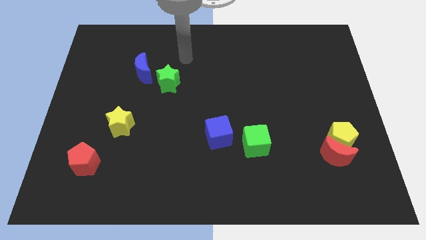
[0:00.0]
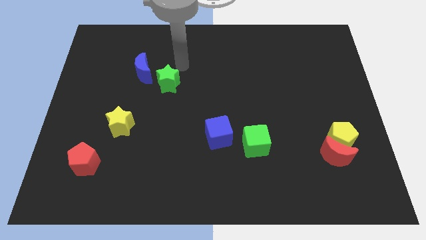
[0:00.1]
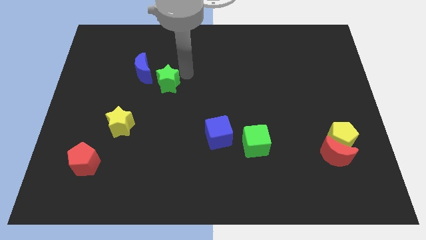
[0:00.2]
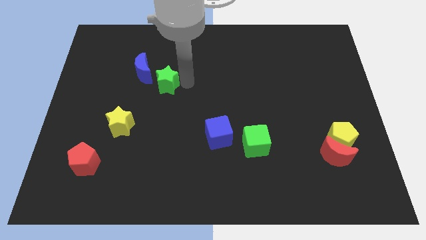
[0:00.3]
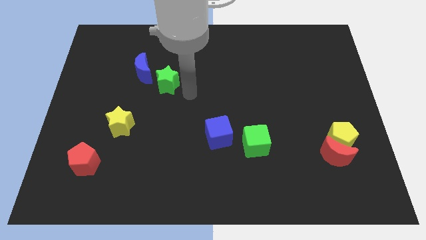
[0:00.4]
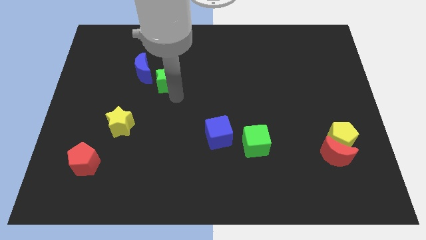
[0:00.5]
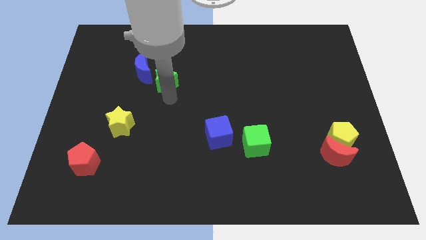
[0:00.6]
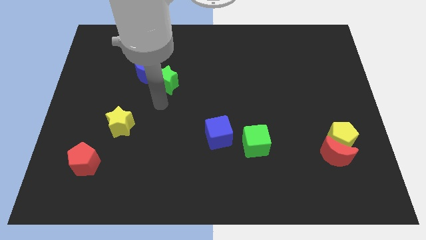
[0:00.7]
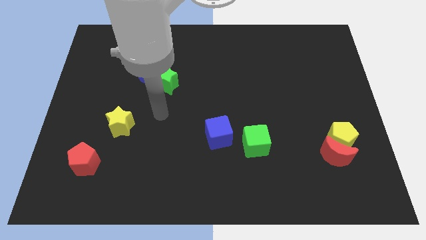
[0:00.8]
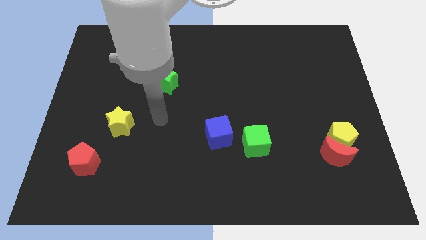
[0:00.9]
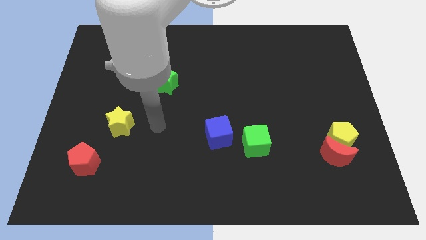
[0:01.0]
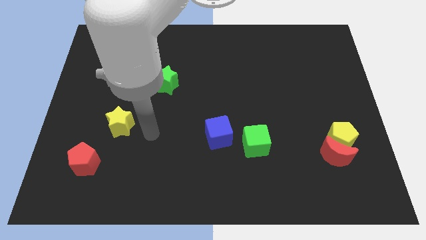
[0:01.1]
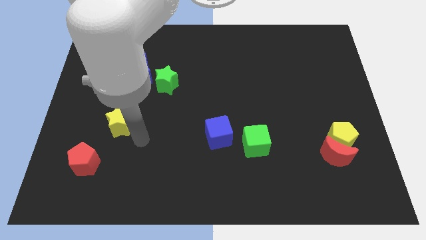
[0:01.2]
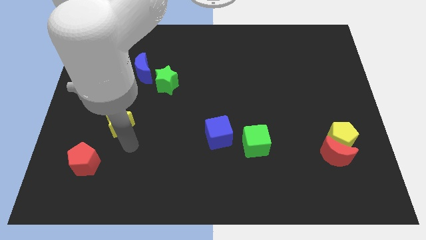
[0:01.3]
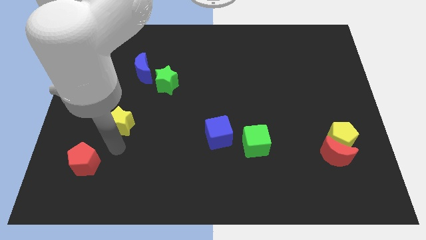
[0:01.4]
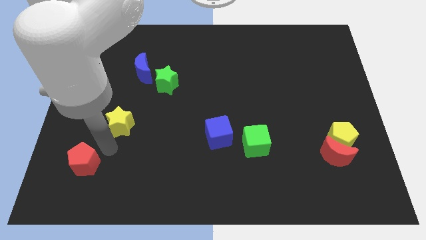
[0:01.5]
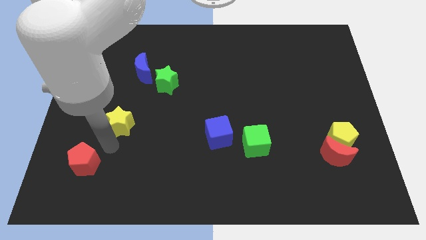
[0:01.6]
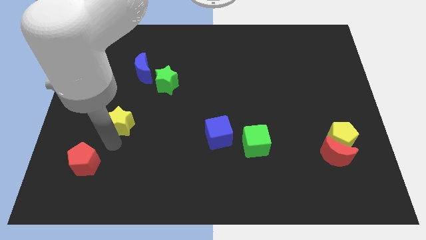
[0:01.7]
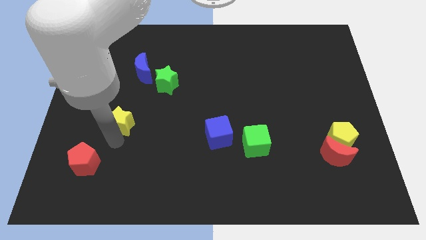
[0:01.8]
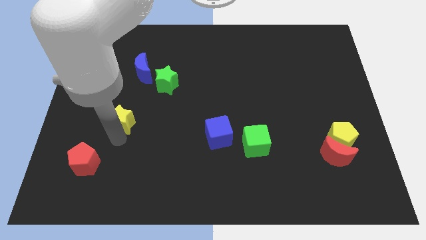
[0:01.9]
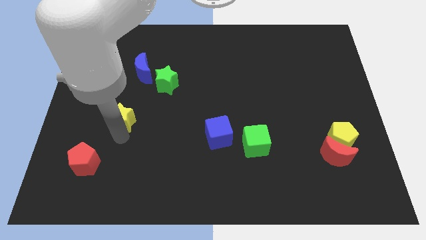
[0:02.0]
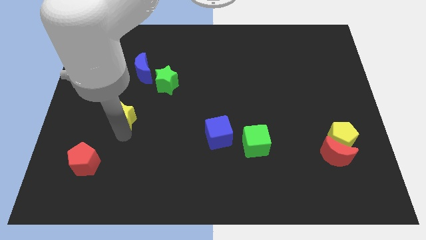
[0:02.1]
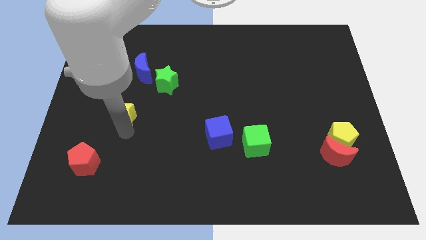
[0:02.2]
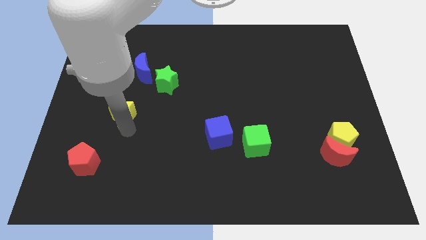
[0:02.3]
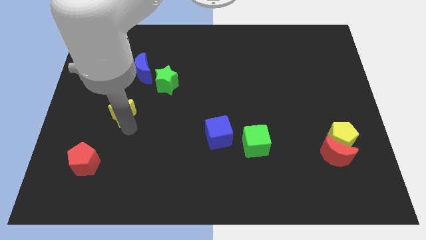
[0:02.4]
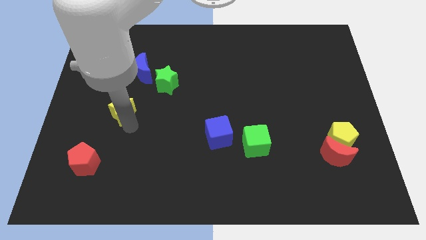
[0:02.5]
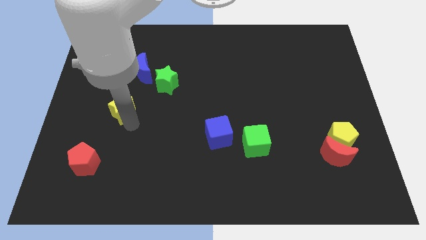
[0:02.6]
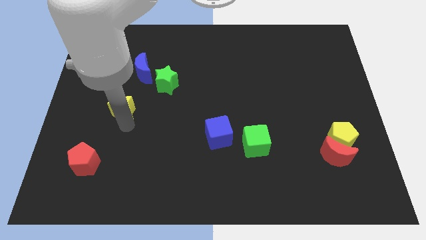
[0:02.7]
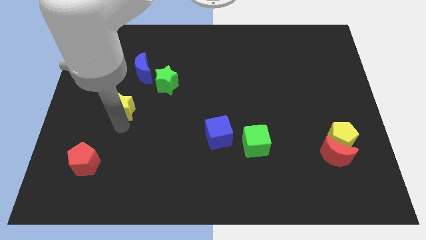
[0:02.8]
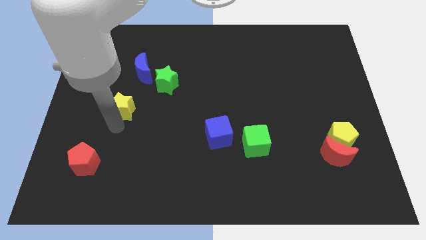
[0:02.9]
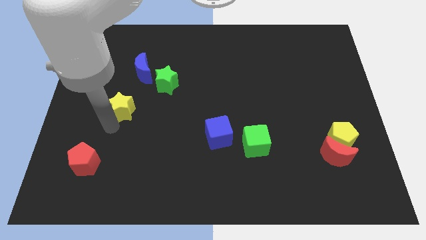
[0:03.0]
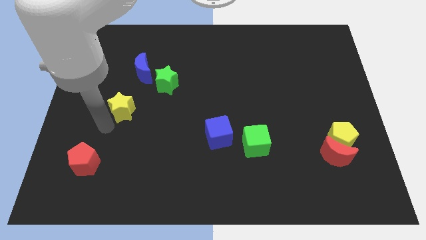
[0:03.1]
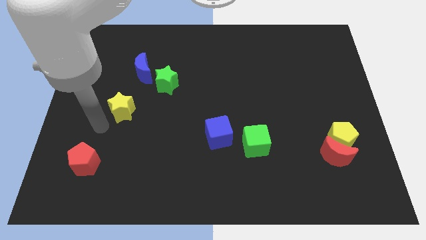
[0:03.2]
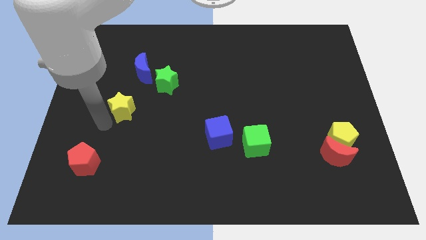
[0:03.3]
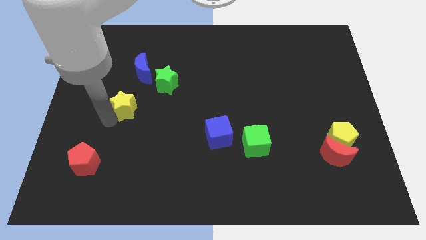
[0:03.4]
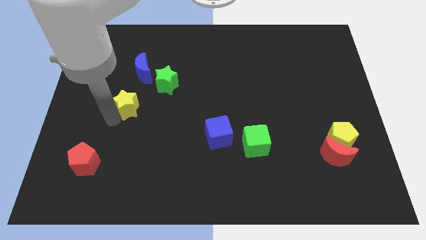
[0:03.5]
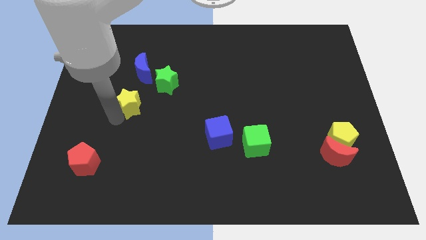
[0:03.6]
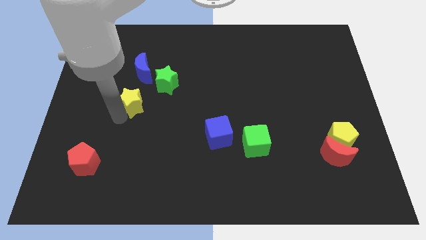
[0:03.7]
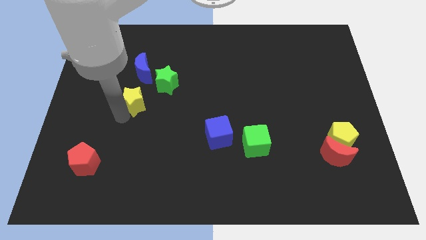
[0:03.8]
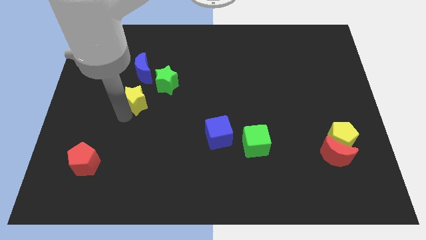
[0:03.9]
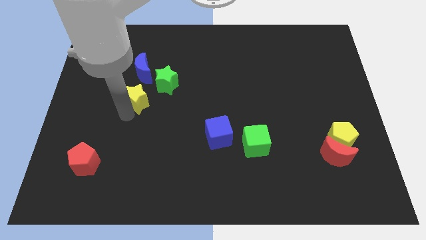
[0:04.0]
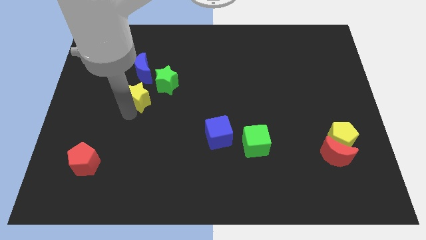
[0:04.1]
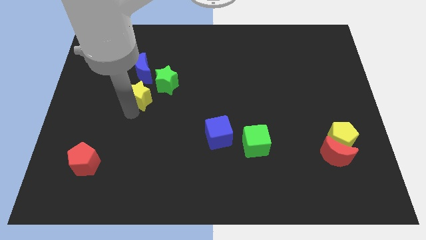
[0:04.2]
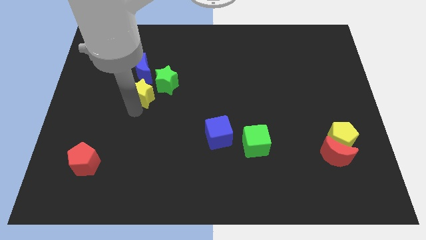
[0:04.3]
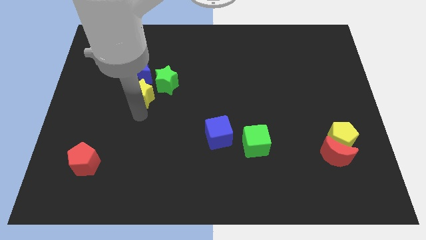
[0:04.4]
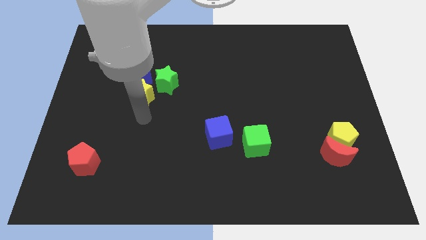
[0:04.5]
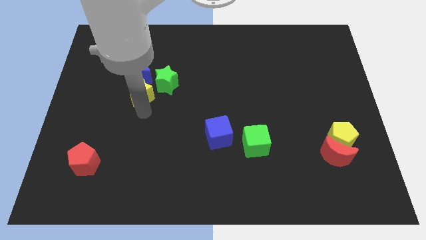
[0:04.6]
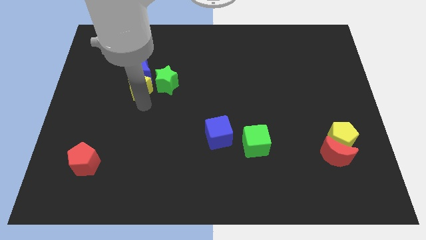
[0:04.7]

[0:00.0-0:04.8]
slide the yellow star next to the blue moon

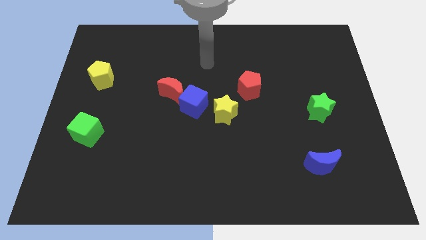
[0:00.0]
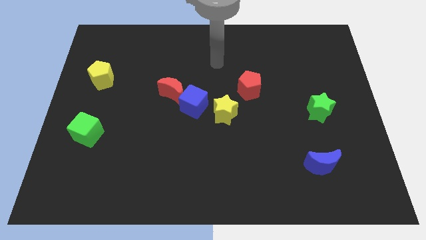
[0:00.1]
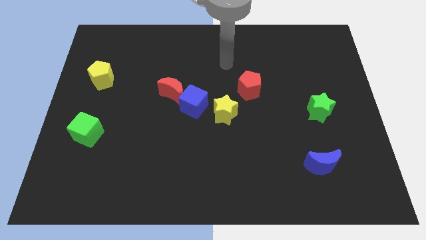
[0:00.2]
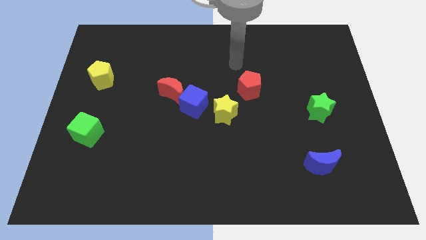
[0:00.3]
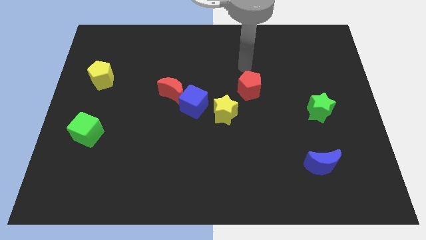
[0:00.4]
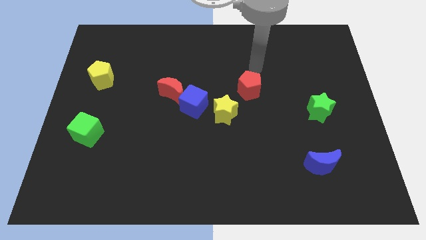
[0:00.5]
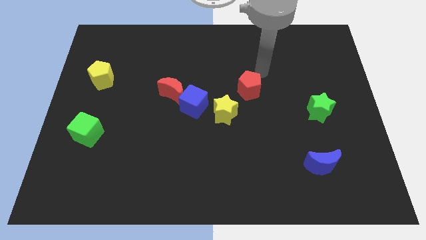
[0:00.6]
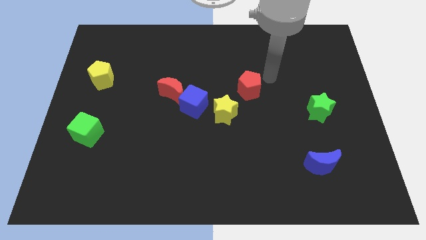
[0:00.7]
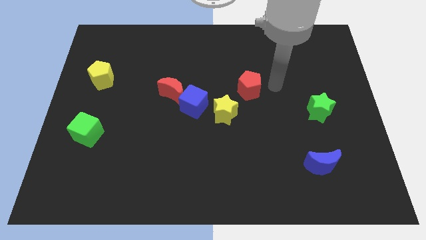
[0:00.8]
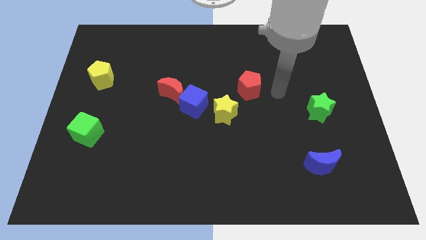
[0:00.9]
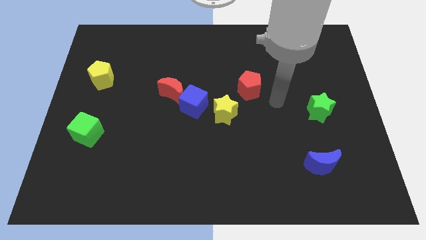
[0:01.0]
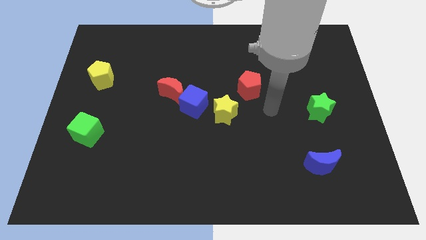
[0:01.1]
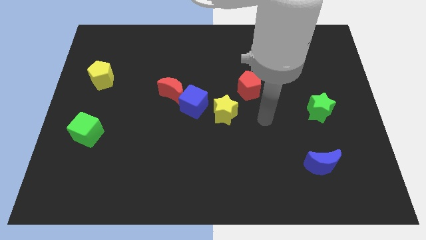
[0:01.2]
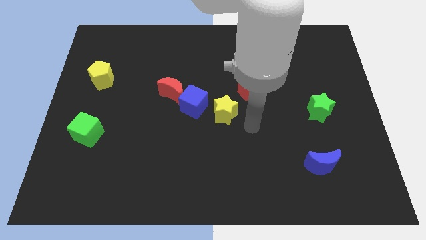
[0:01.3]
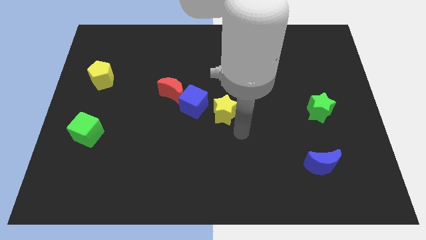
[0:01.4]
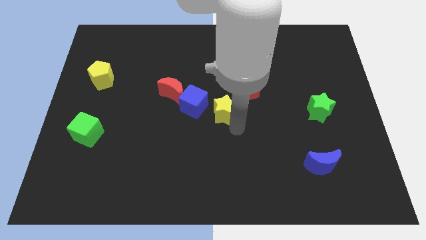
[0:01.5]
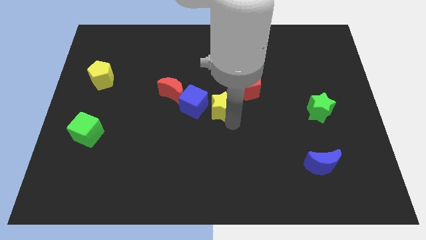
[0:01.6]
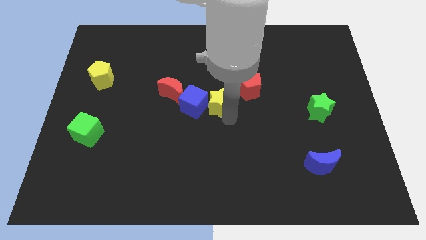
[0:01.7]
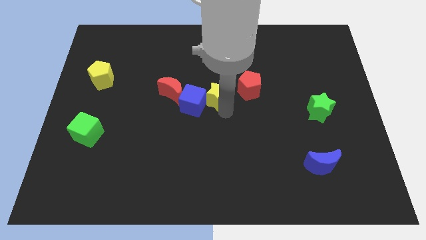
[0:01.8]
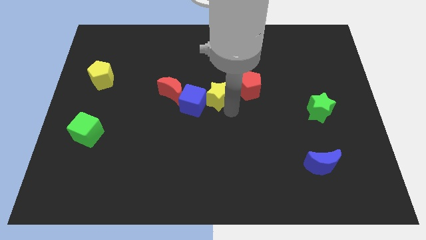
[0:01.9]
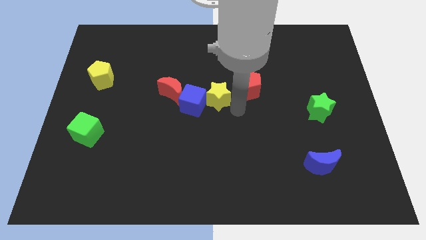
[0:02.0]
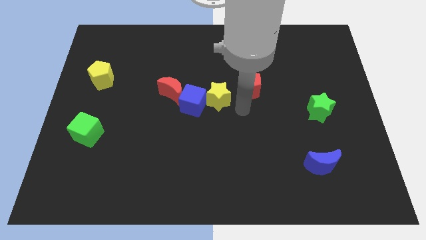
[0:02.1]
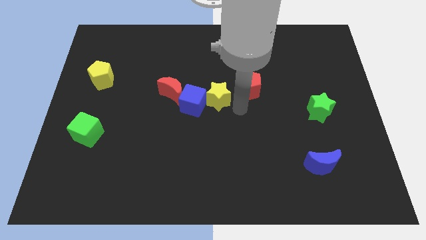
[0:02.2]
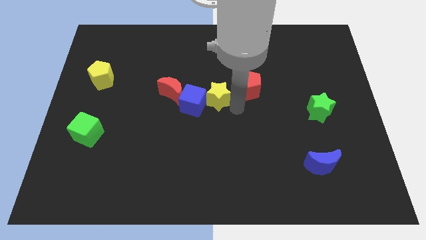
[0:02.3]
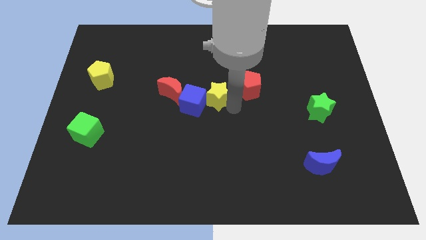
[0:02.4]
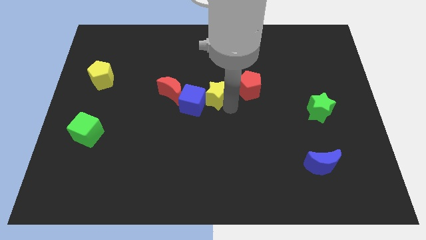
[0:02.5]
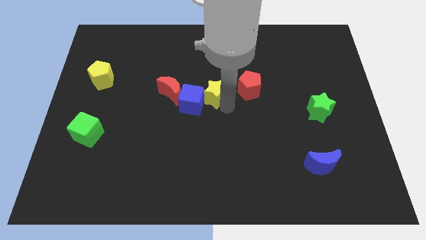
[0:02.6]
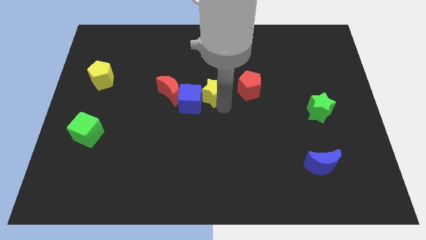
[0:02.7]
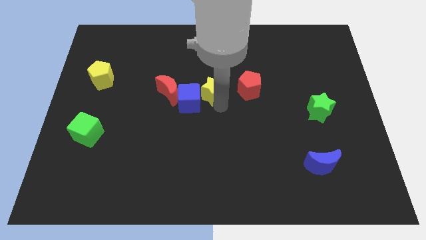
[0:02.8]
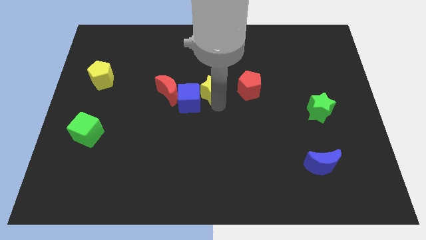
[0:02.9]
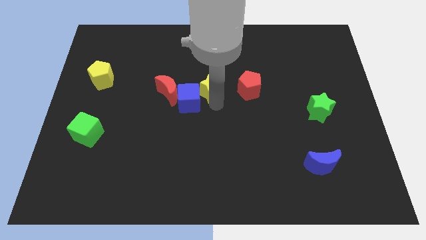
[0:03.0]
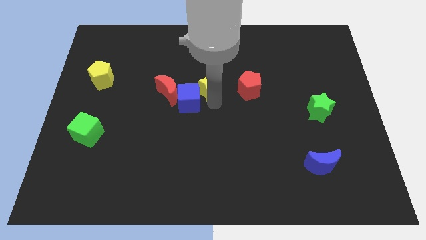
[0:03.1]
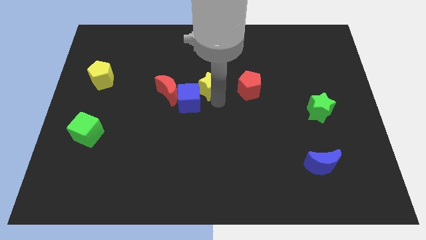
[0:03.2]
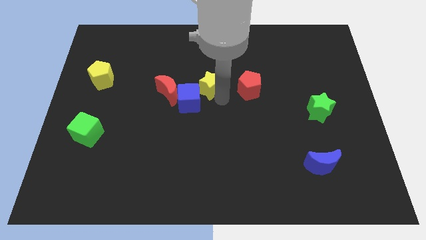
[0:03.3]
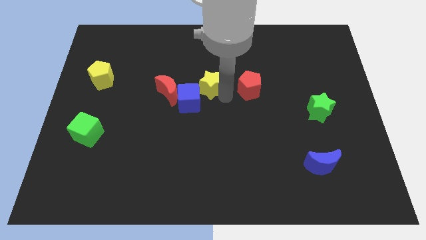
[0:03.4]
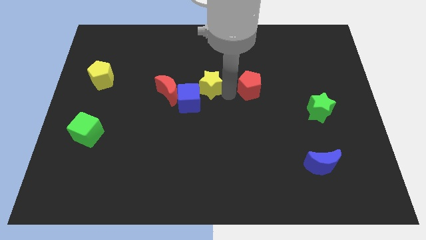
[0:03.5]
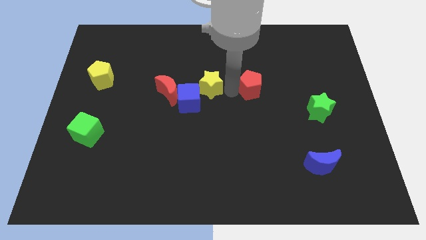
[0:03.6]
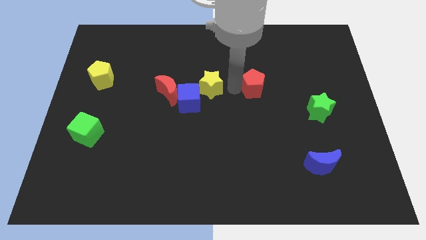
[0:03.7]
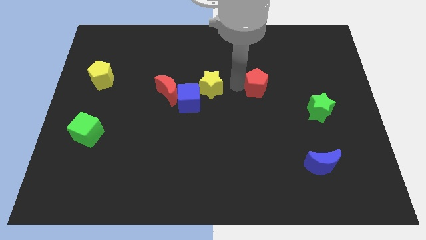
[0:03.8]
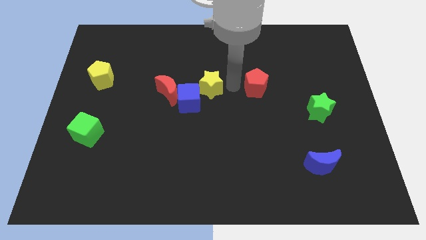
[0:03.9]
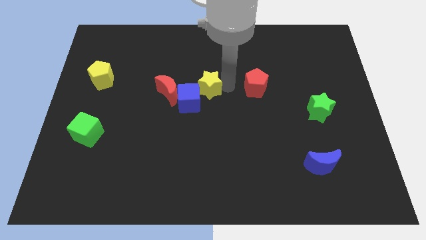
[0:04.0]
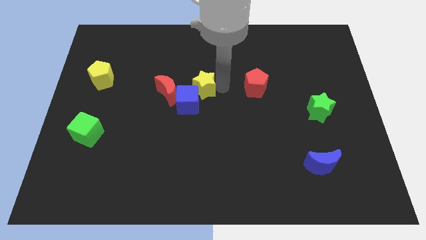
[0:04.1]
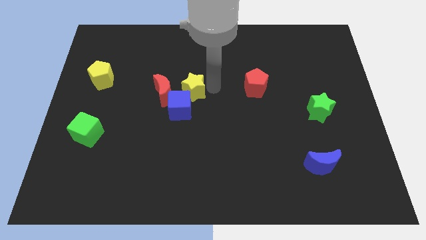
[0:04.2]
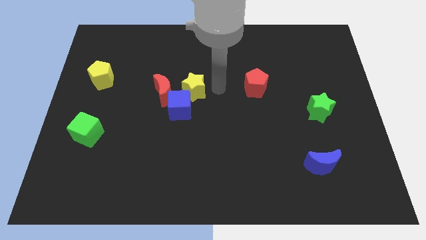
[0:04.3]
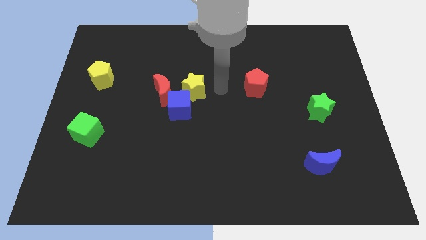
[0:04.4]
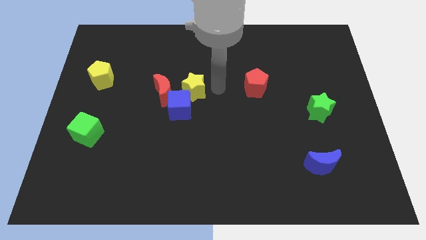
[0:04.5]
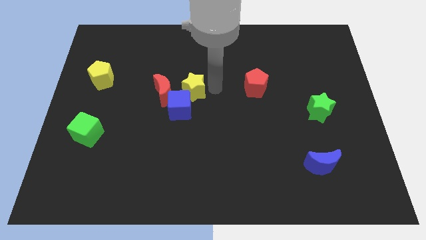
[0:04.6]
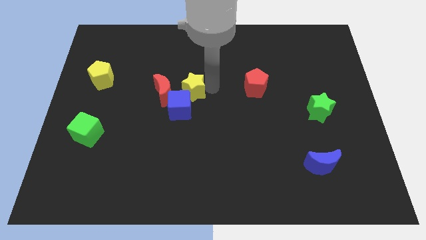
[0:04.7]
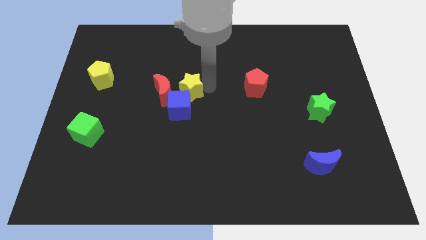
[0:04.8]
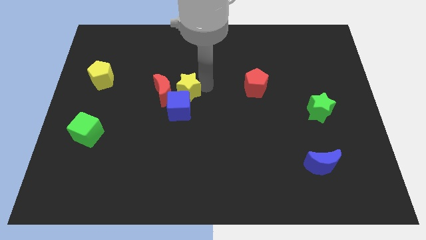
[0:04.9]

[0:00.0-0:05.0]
put the yellow star close to the red moon
